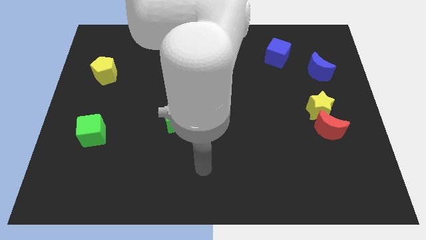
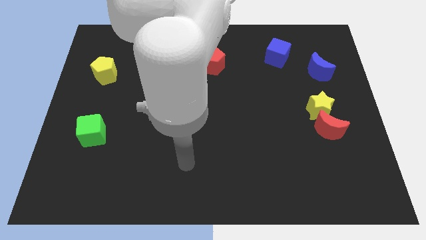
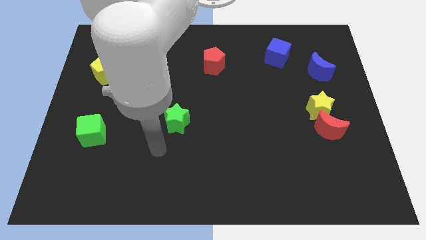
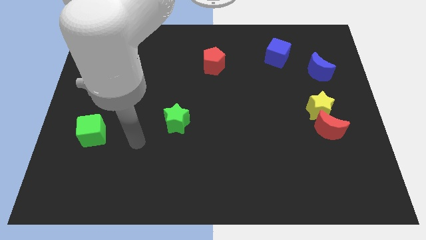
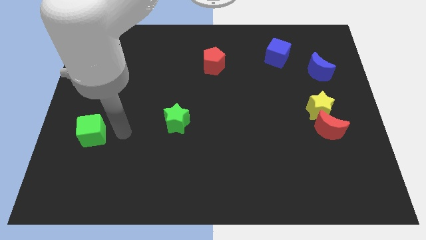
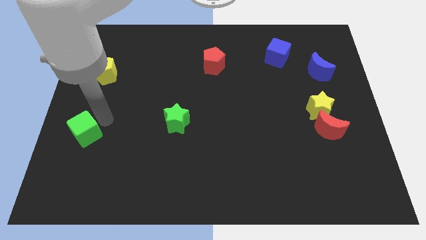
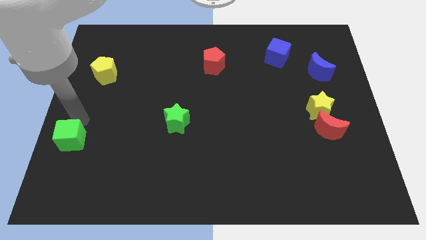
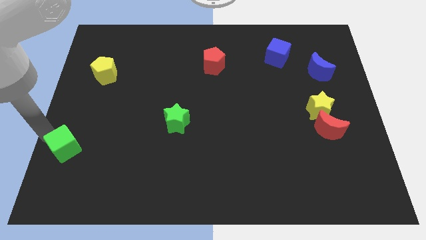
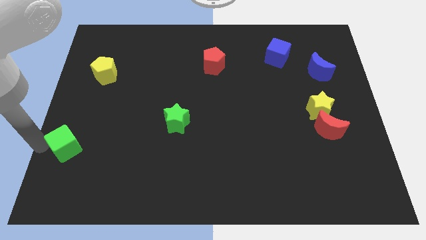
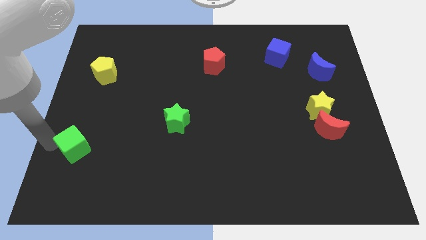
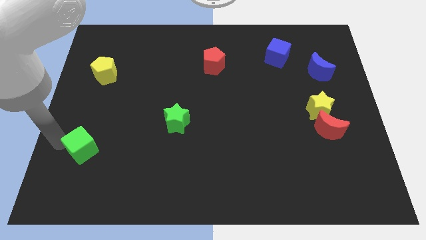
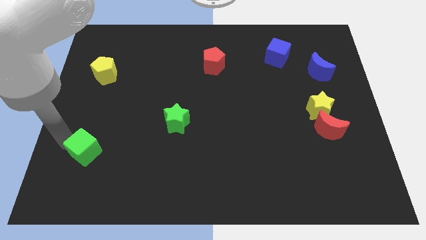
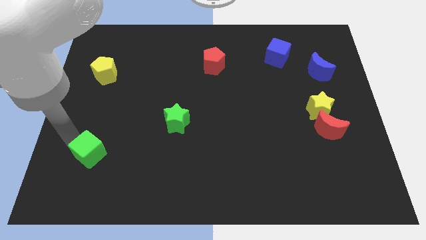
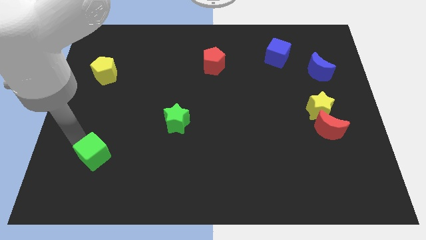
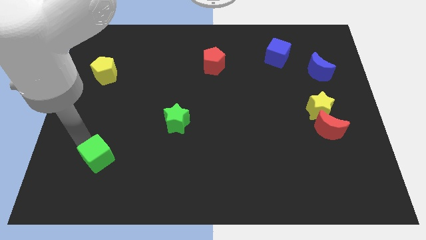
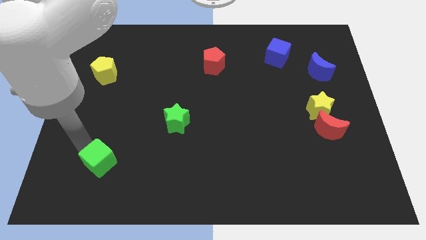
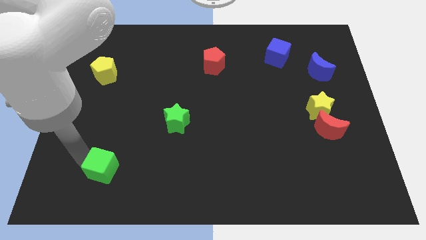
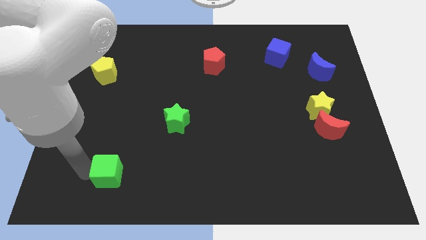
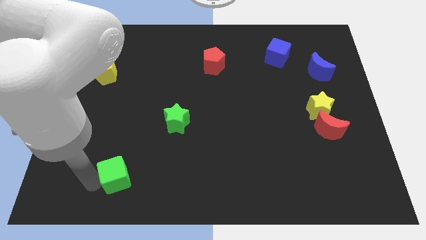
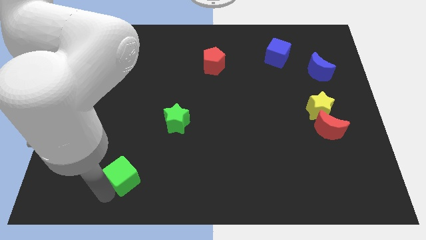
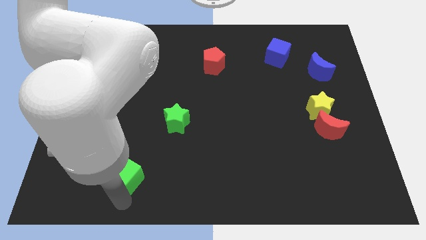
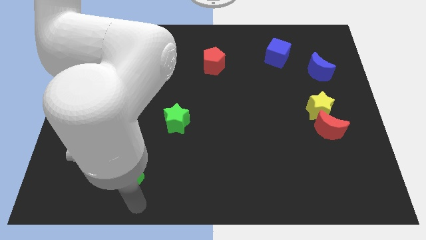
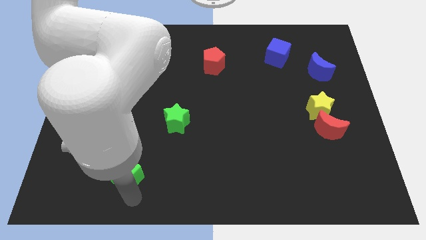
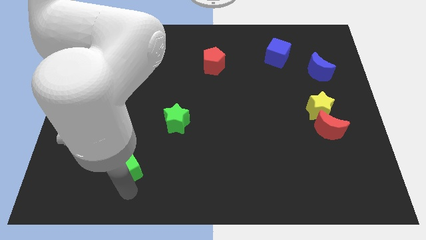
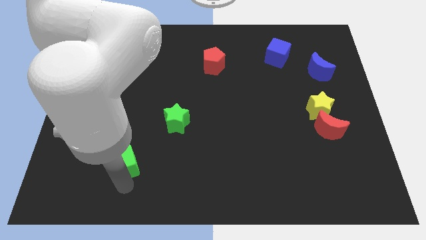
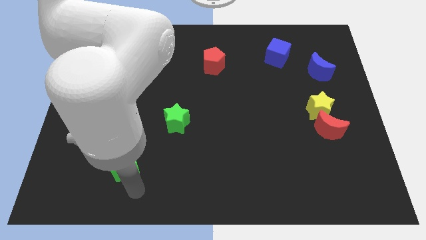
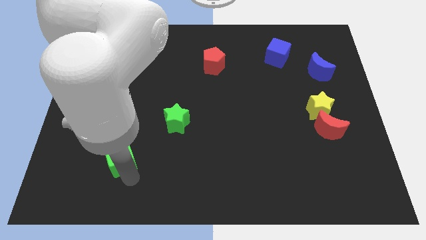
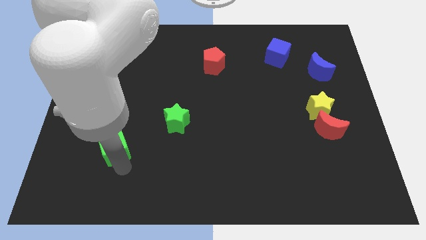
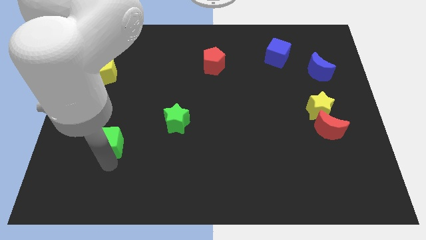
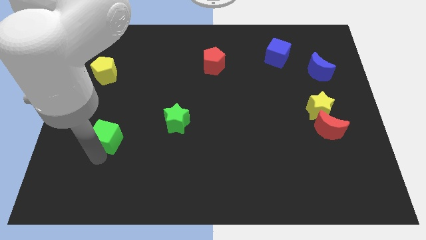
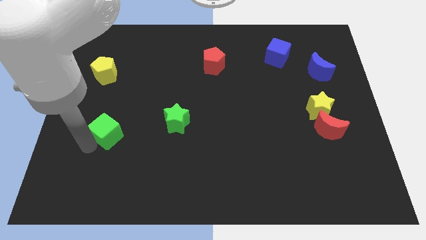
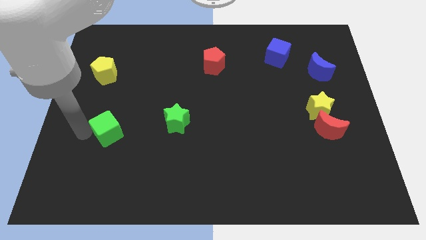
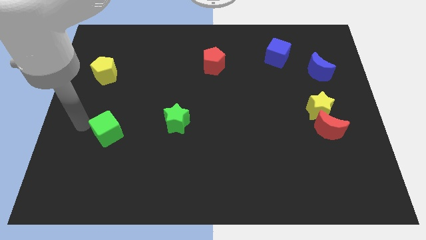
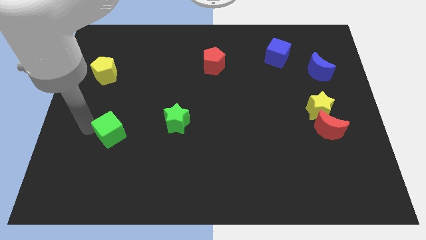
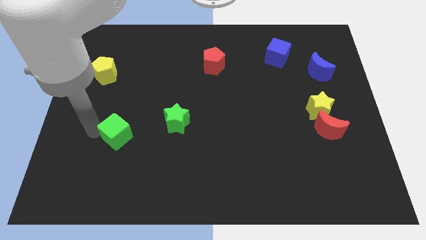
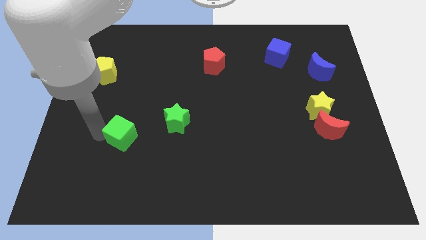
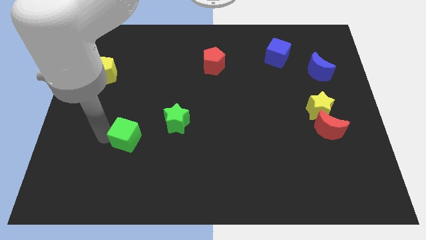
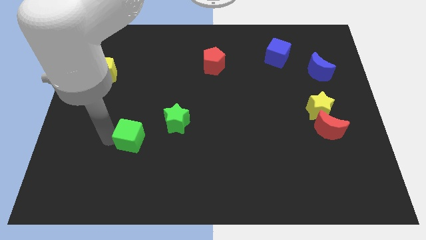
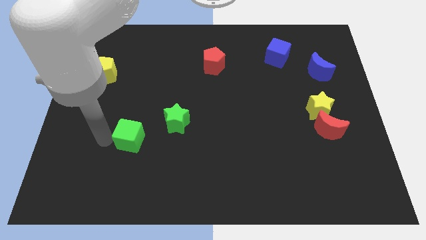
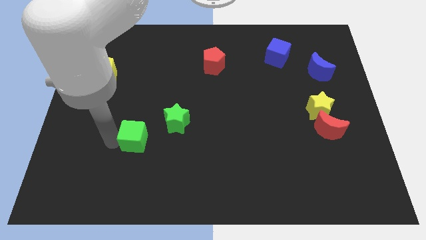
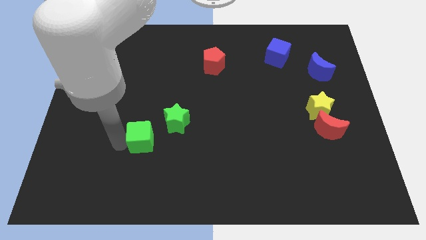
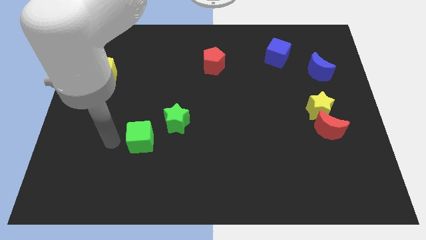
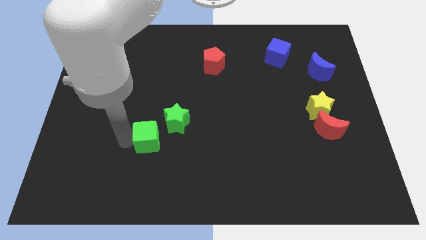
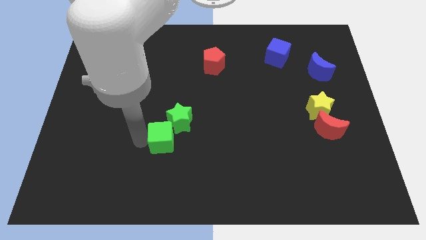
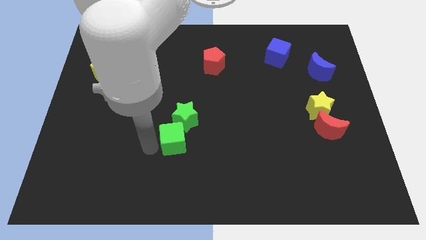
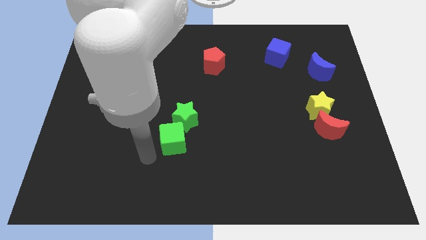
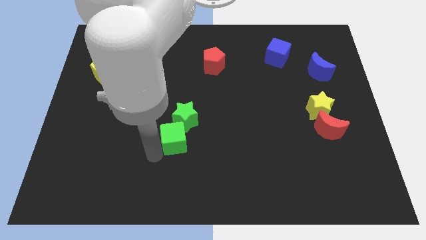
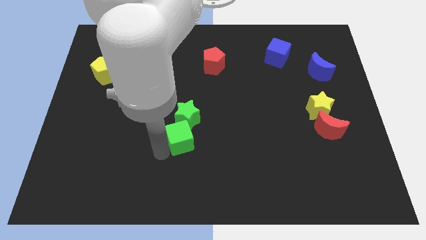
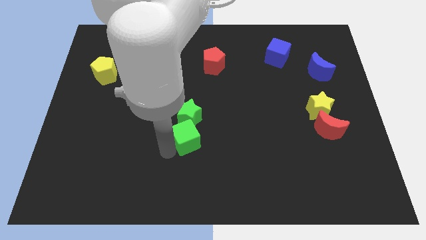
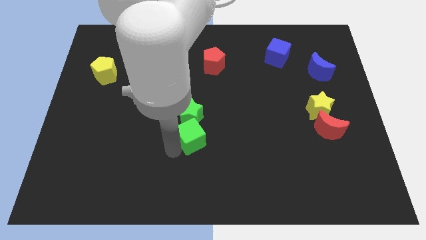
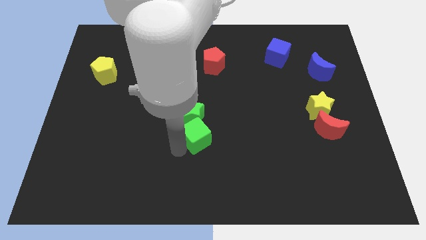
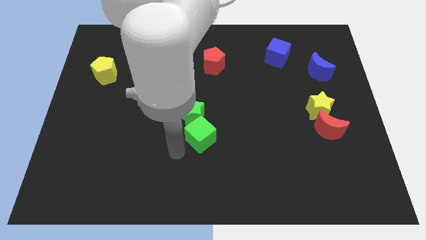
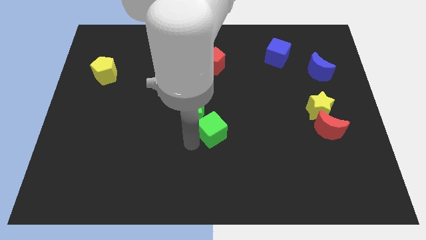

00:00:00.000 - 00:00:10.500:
put the green cube to the right of the green star

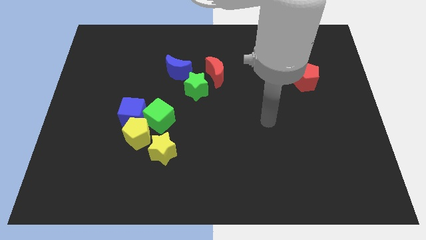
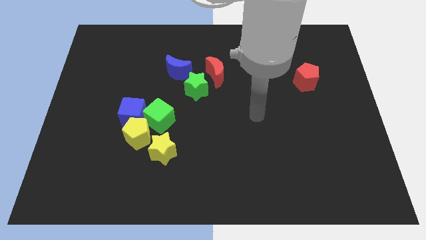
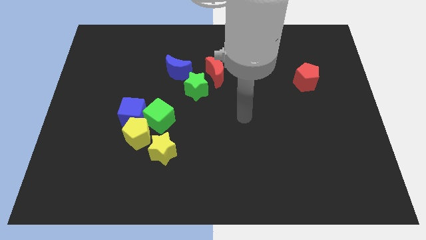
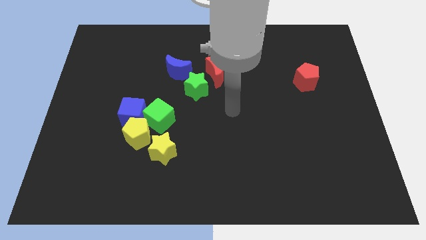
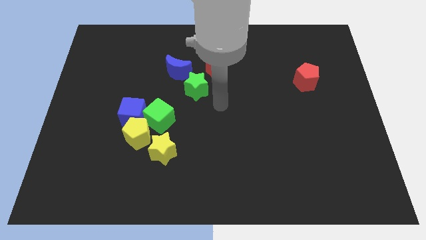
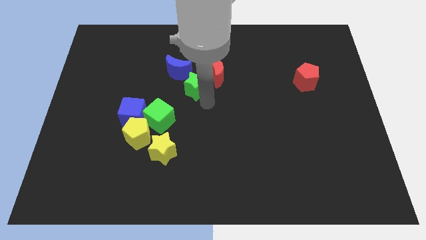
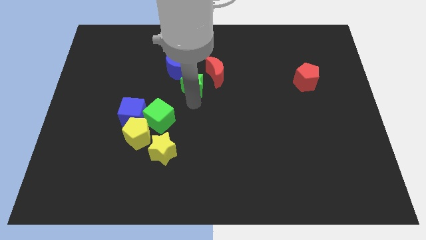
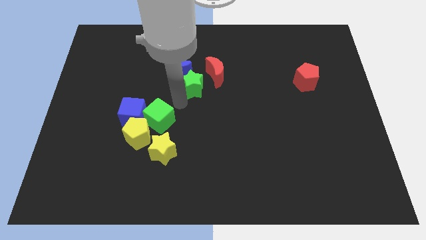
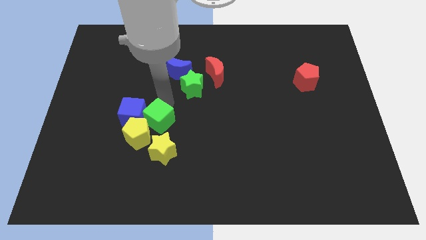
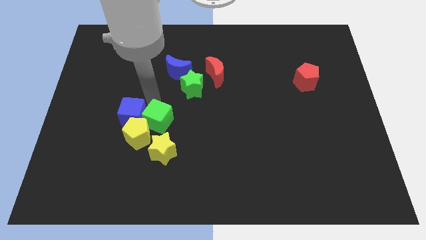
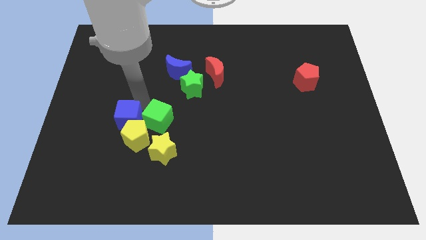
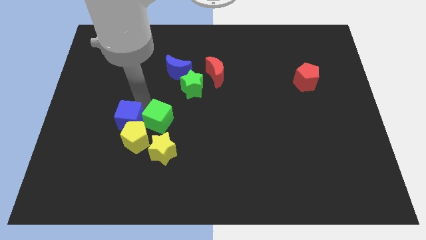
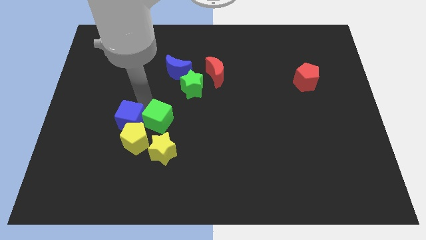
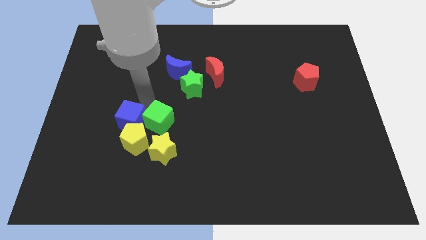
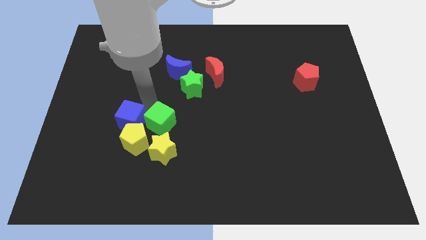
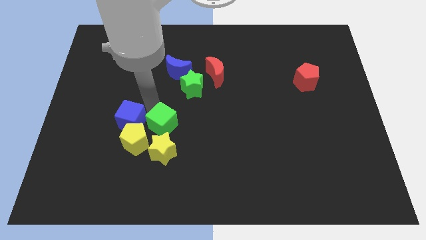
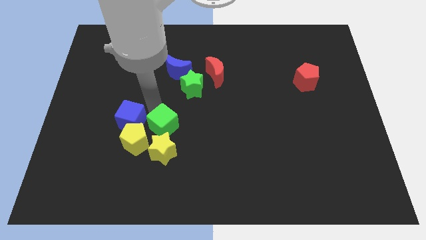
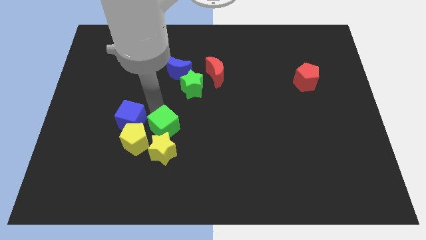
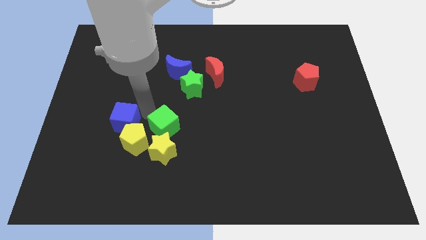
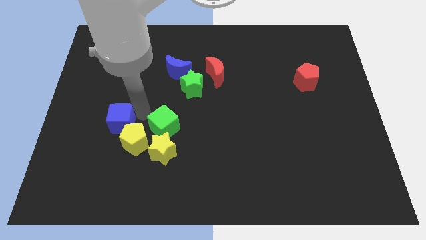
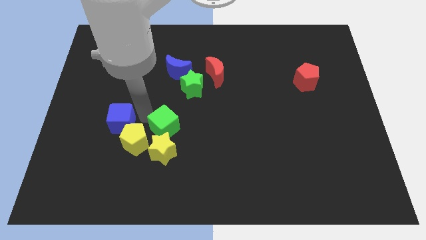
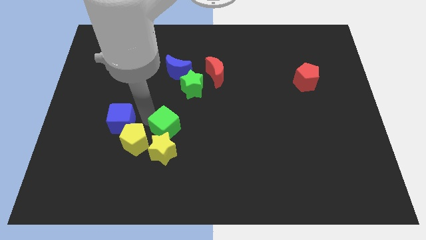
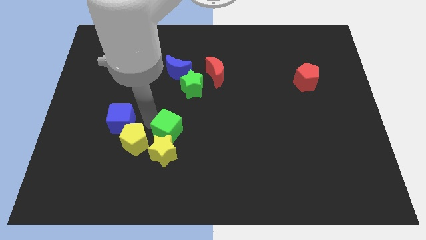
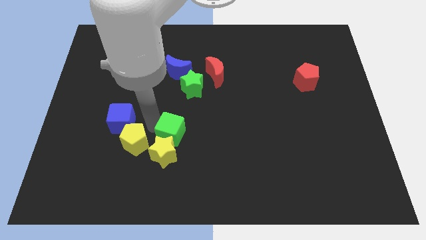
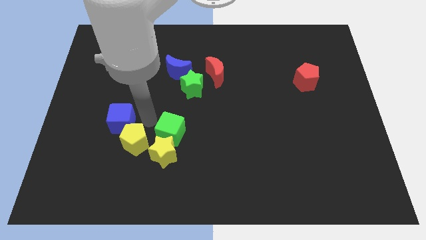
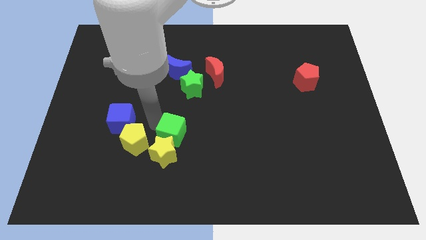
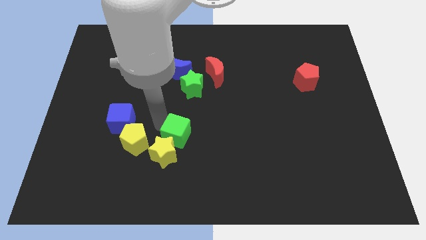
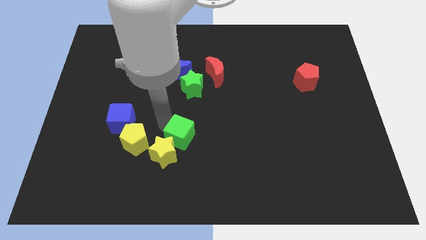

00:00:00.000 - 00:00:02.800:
move the green cube to the right of the yellow star
